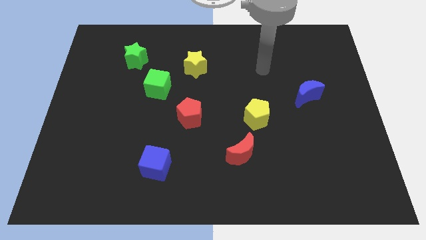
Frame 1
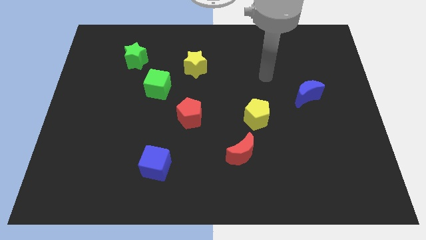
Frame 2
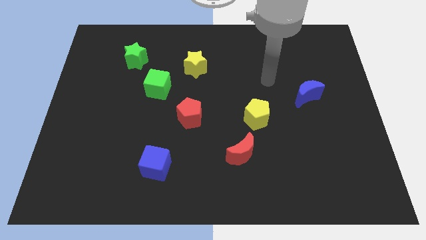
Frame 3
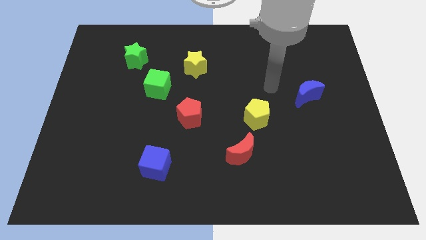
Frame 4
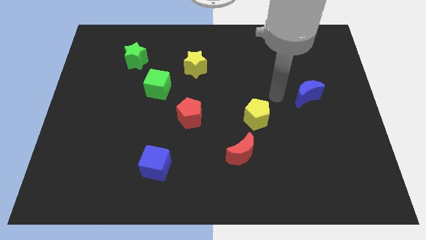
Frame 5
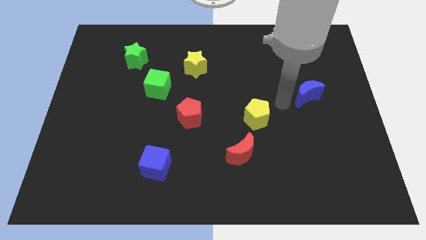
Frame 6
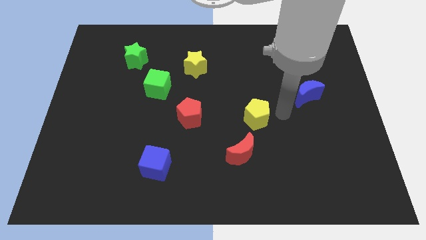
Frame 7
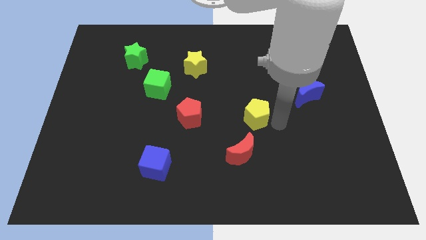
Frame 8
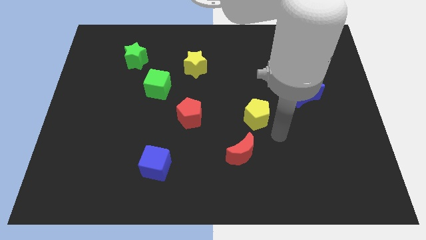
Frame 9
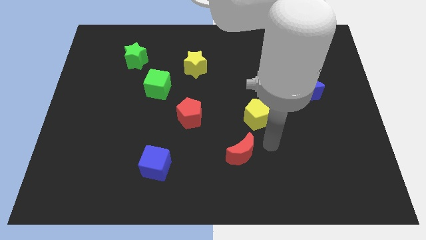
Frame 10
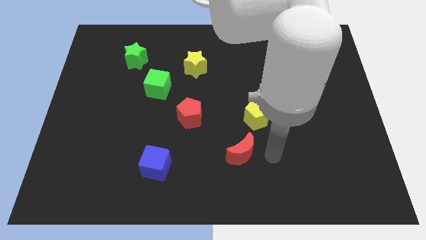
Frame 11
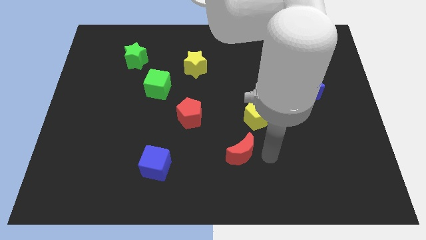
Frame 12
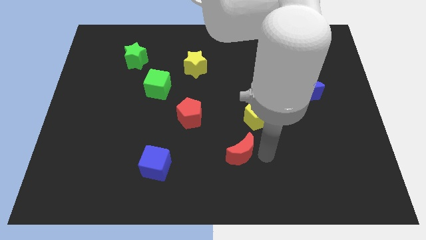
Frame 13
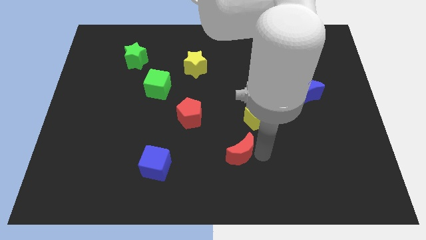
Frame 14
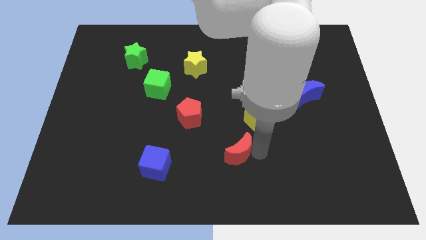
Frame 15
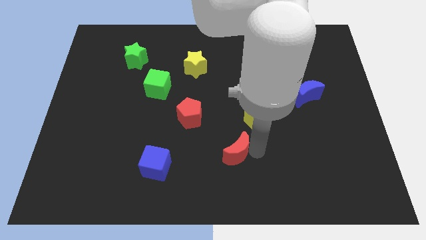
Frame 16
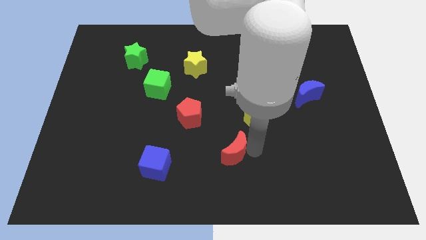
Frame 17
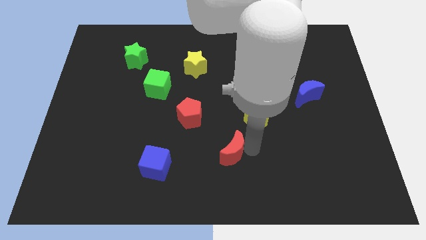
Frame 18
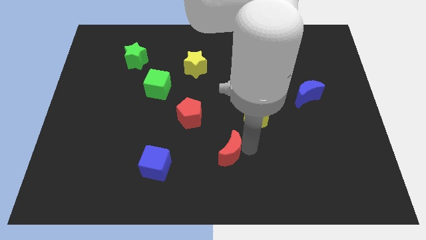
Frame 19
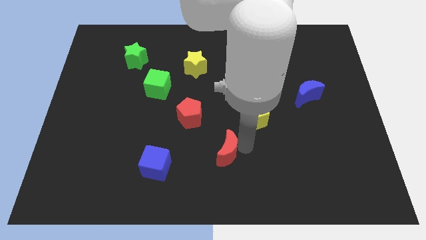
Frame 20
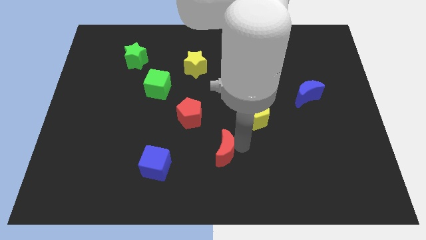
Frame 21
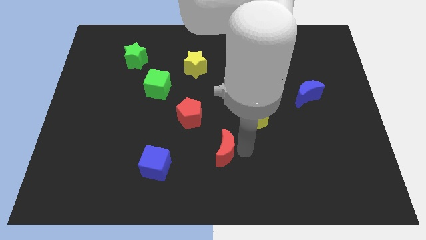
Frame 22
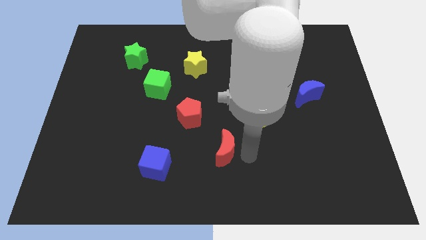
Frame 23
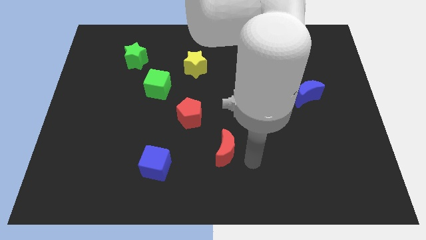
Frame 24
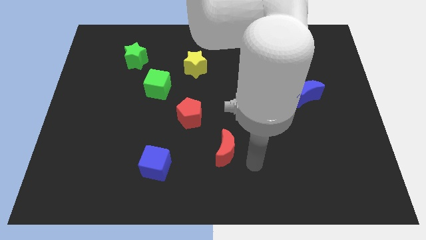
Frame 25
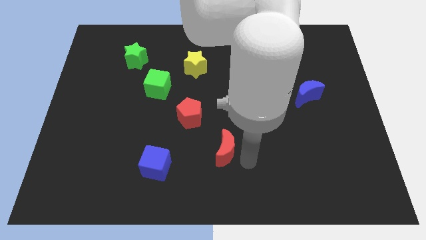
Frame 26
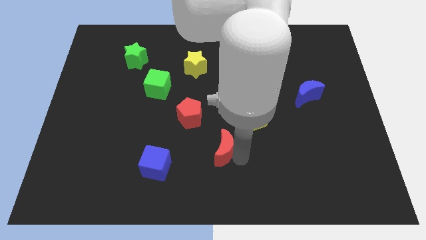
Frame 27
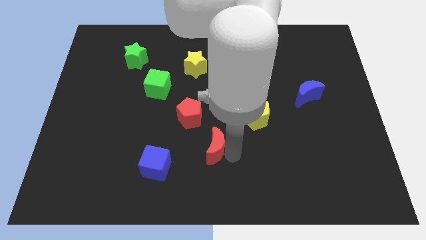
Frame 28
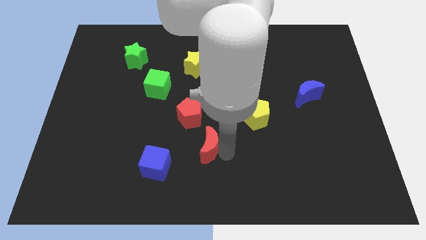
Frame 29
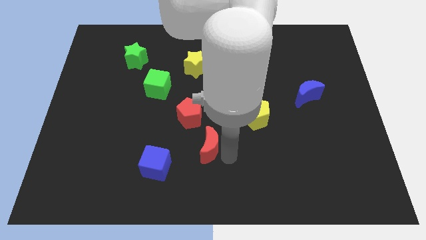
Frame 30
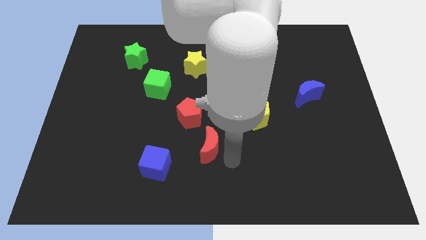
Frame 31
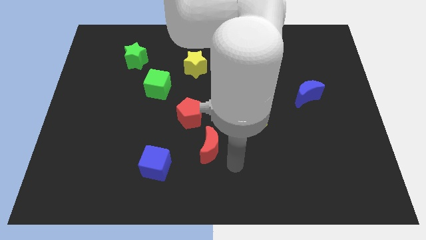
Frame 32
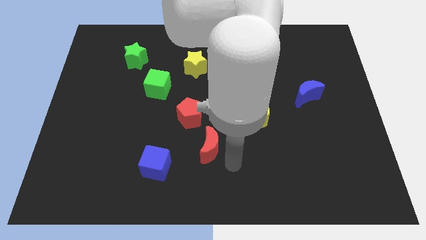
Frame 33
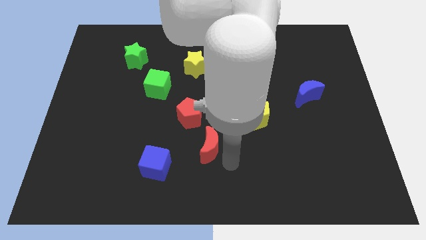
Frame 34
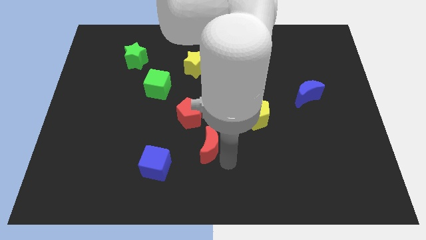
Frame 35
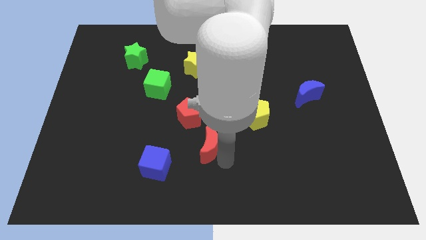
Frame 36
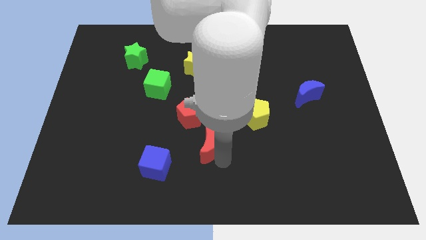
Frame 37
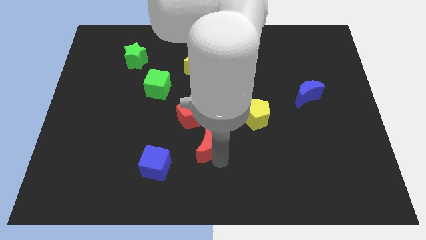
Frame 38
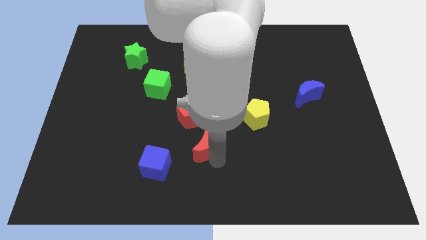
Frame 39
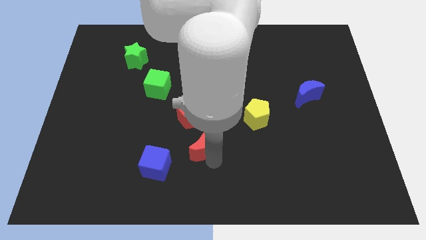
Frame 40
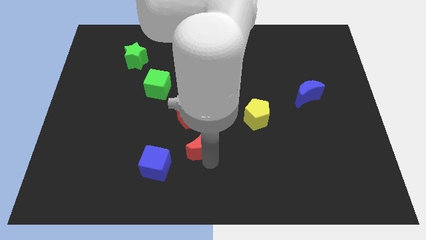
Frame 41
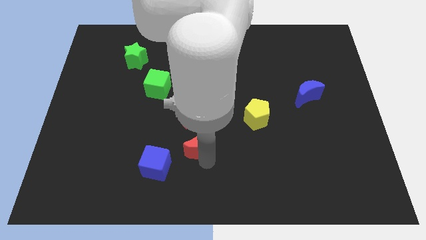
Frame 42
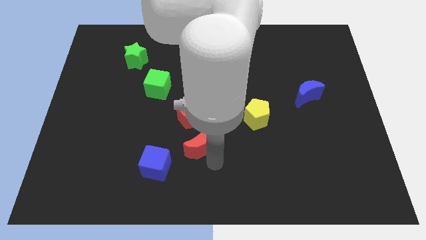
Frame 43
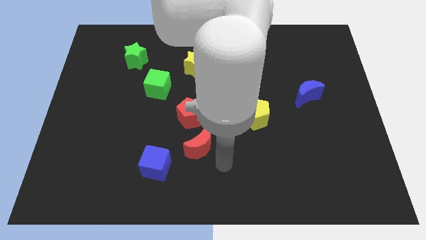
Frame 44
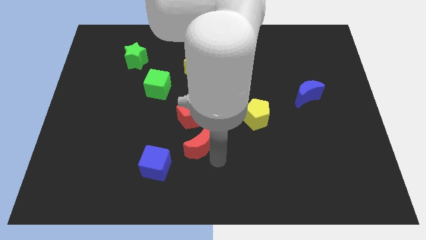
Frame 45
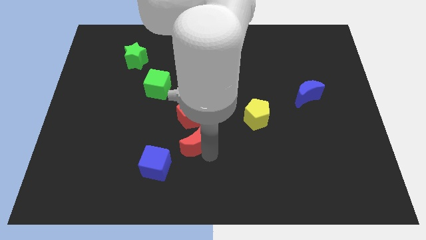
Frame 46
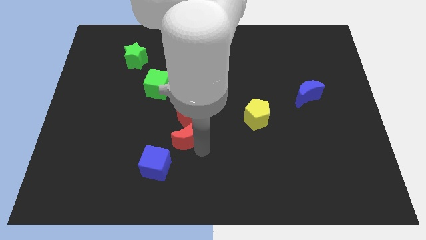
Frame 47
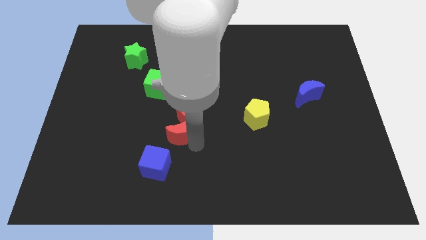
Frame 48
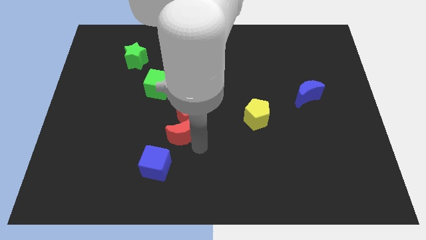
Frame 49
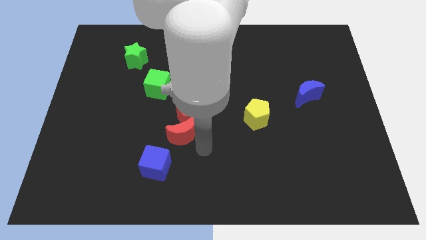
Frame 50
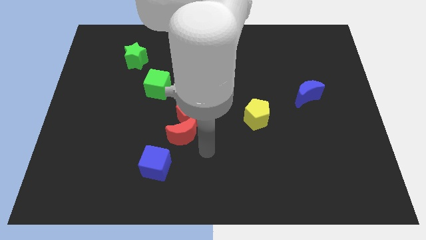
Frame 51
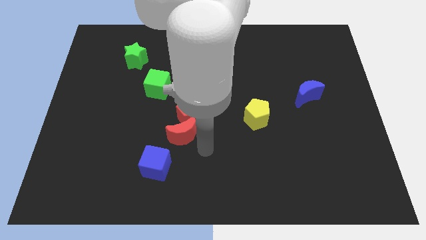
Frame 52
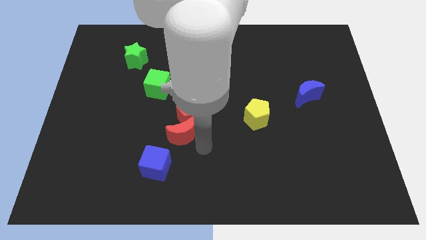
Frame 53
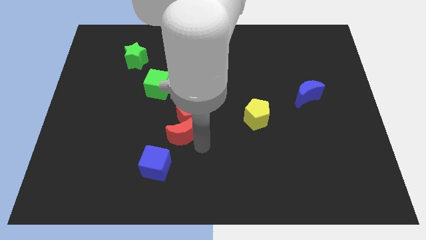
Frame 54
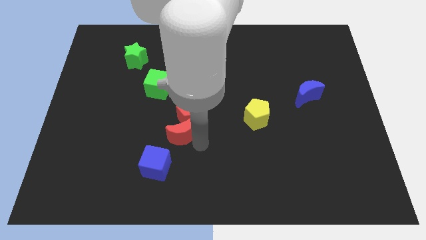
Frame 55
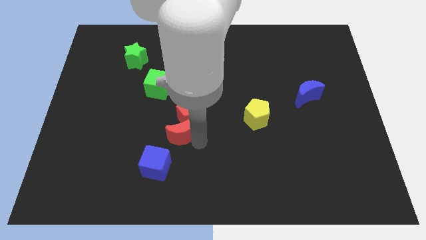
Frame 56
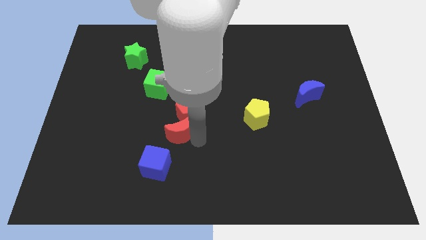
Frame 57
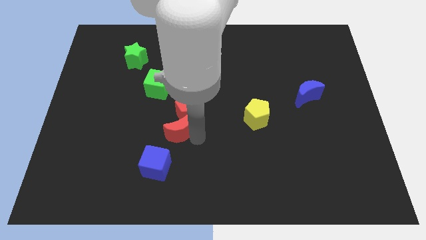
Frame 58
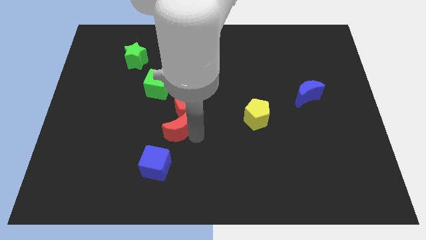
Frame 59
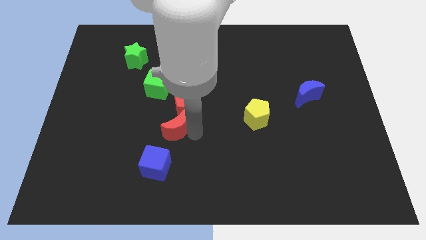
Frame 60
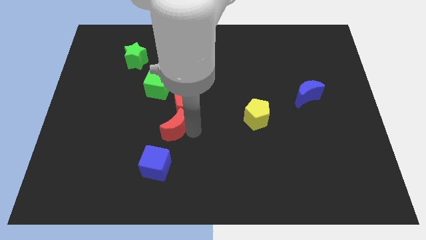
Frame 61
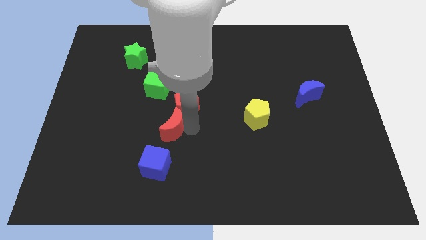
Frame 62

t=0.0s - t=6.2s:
slide the red moon to the bottom of the green cube

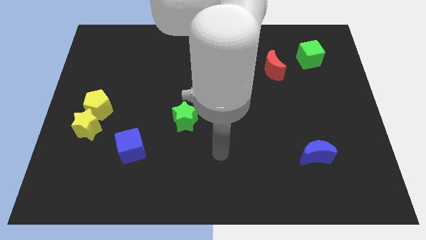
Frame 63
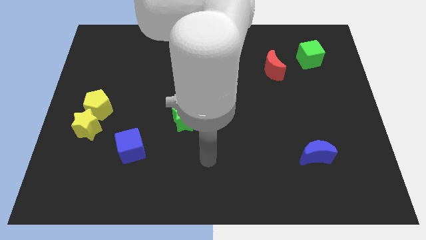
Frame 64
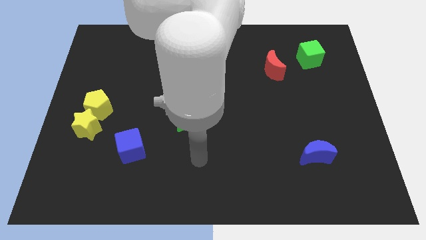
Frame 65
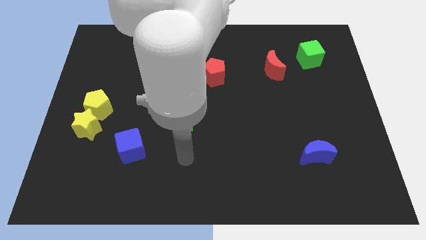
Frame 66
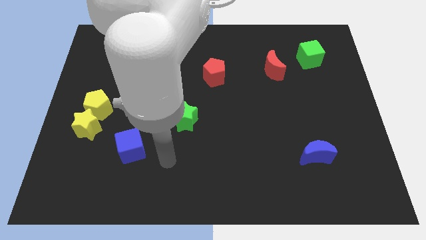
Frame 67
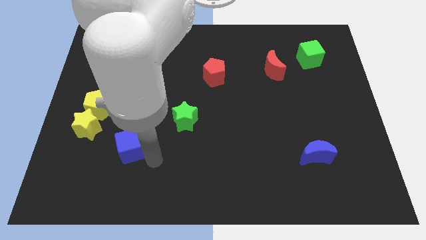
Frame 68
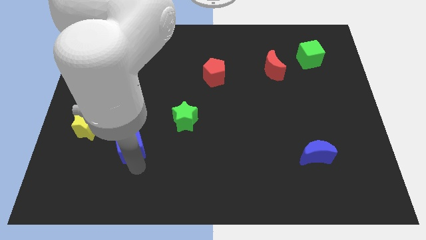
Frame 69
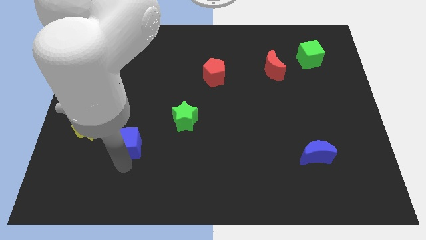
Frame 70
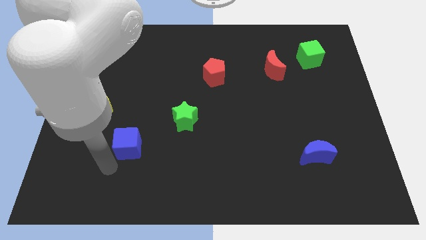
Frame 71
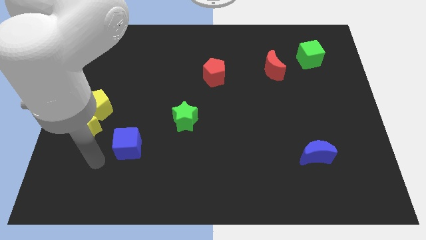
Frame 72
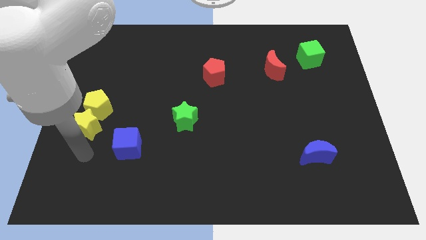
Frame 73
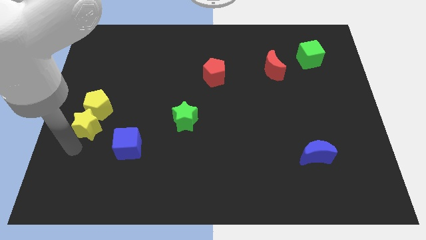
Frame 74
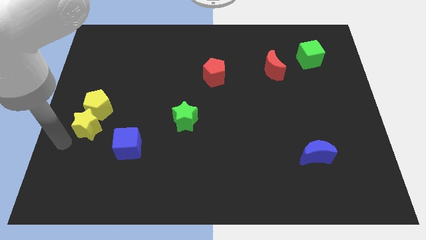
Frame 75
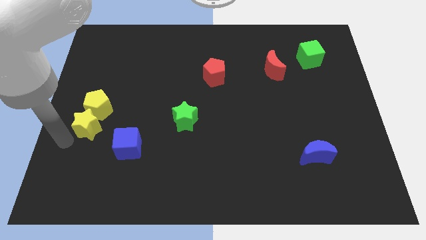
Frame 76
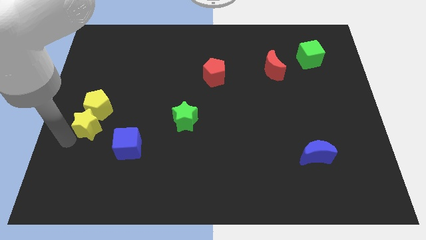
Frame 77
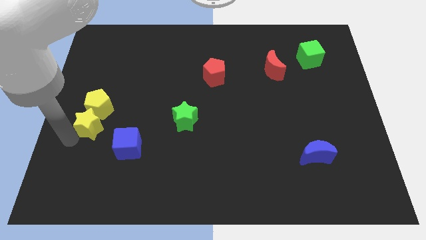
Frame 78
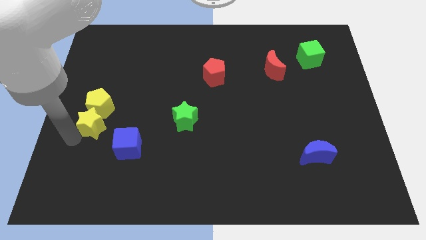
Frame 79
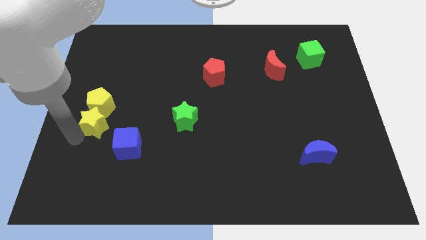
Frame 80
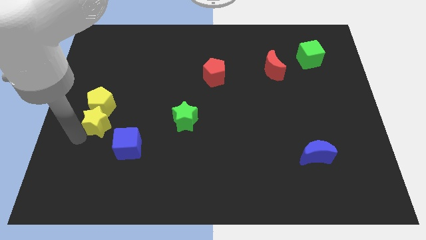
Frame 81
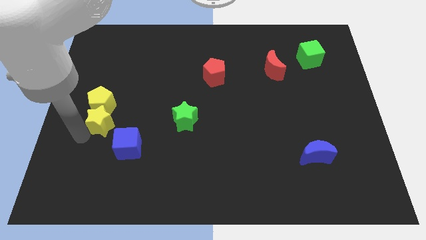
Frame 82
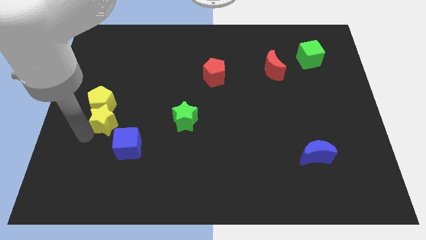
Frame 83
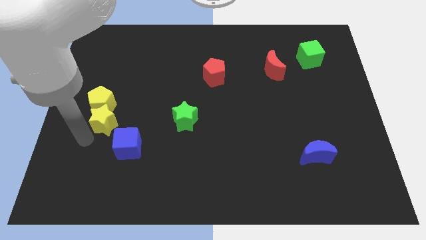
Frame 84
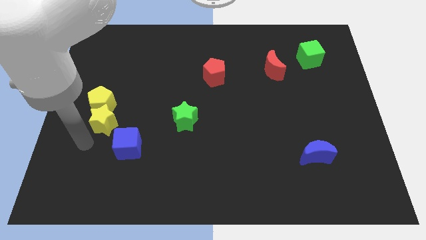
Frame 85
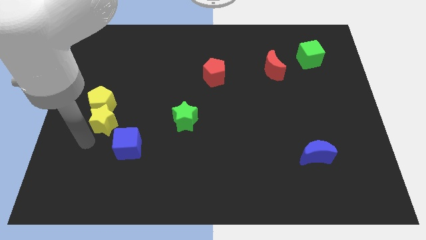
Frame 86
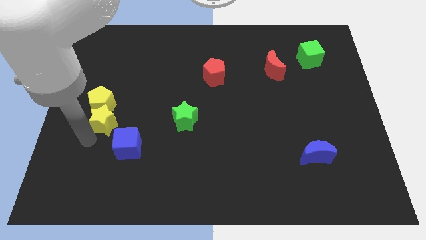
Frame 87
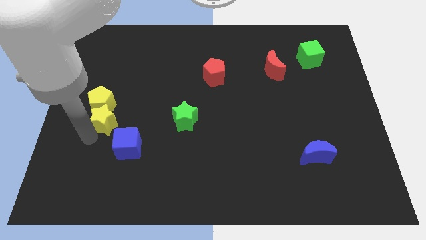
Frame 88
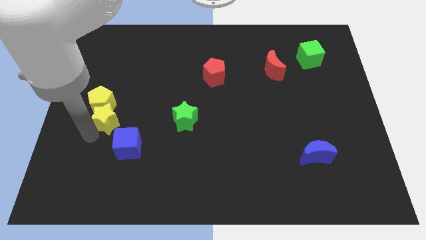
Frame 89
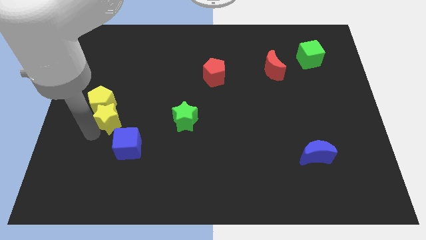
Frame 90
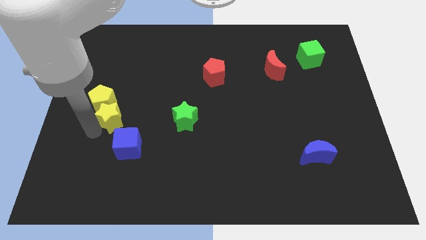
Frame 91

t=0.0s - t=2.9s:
push the yellow star to the top side of the blue cube
